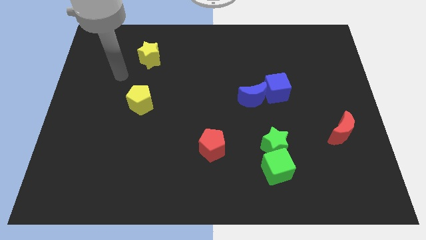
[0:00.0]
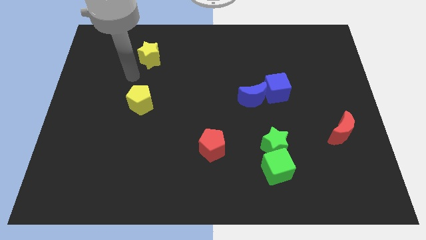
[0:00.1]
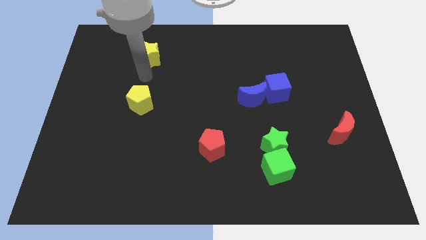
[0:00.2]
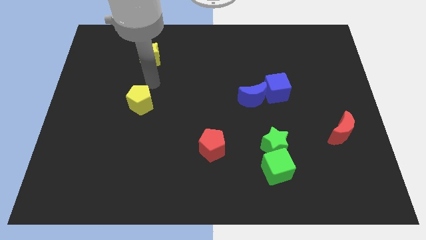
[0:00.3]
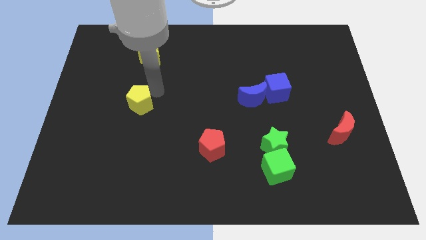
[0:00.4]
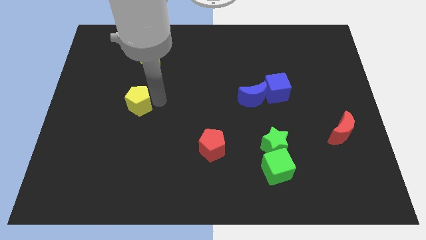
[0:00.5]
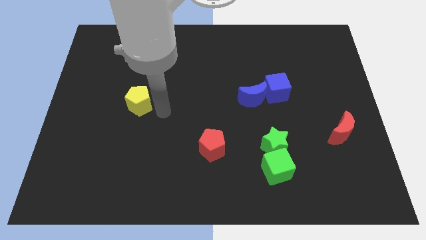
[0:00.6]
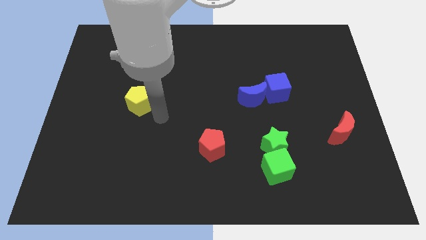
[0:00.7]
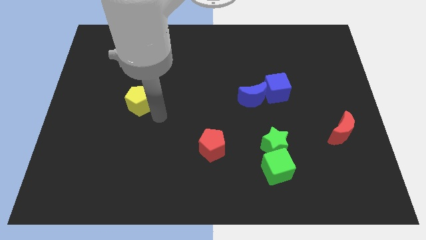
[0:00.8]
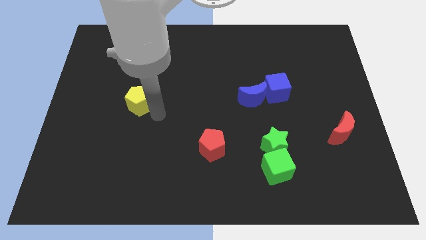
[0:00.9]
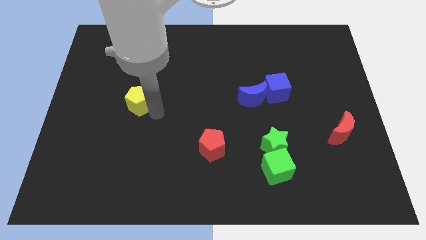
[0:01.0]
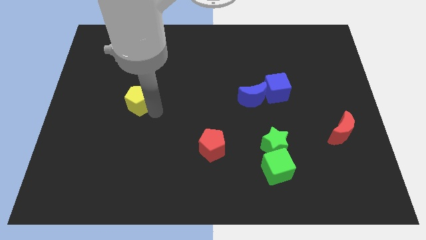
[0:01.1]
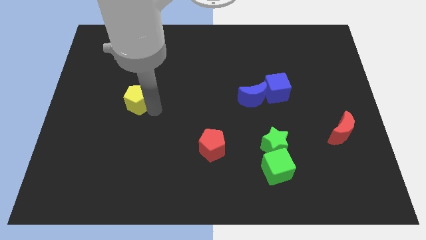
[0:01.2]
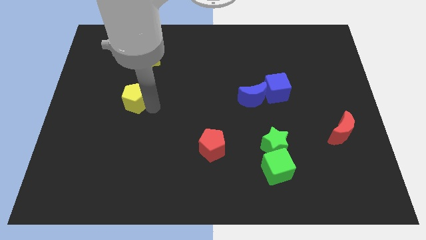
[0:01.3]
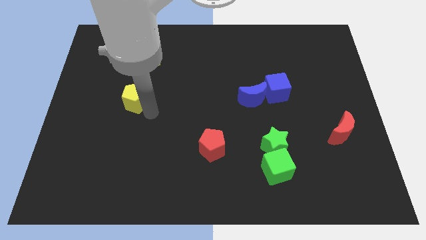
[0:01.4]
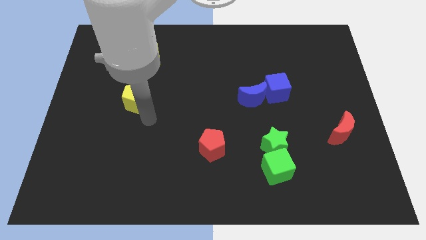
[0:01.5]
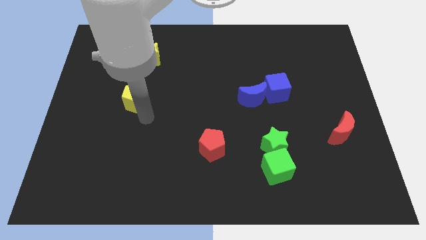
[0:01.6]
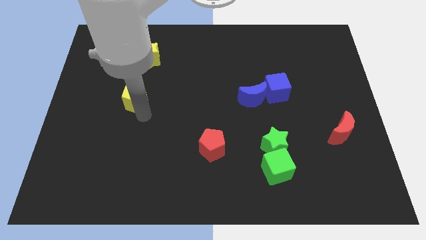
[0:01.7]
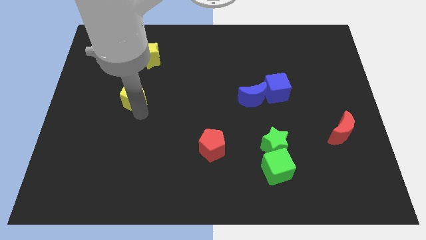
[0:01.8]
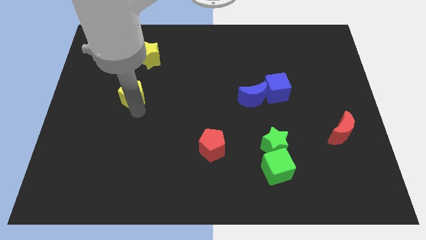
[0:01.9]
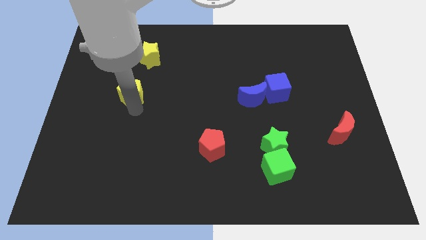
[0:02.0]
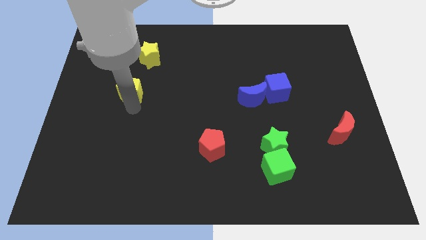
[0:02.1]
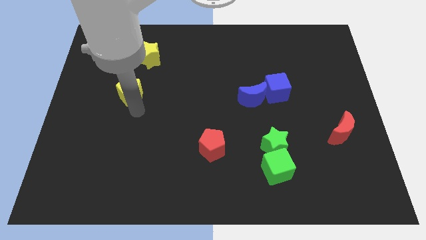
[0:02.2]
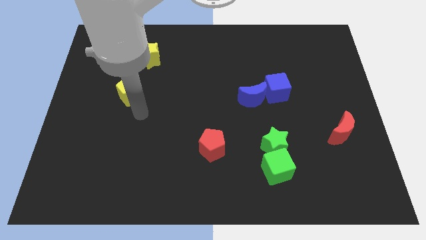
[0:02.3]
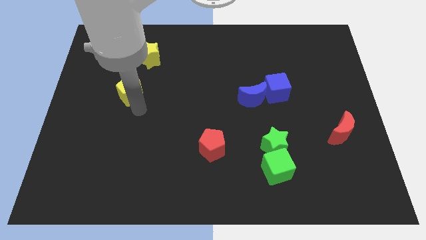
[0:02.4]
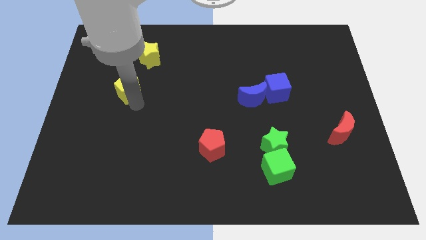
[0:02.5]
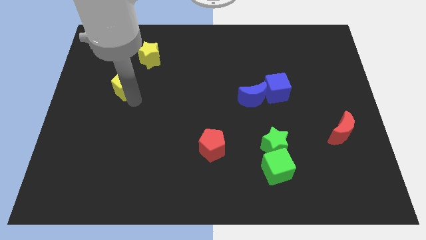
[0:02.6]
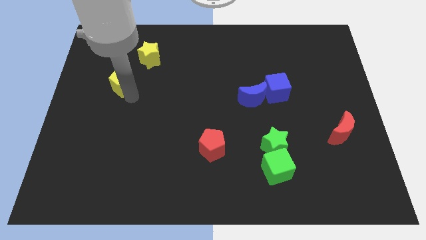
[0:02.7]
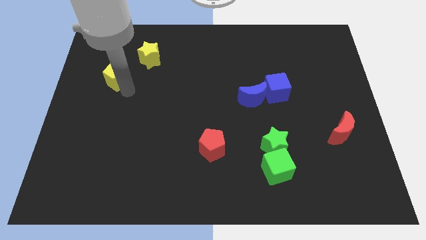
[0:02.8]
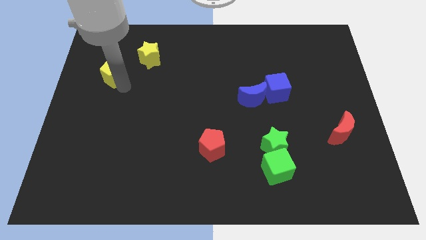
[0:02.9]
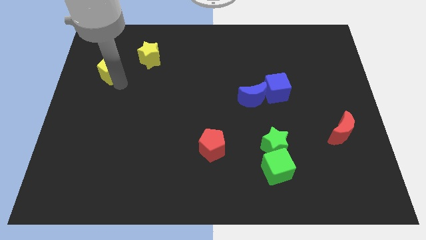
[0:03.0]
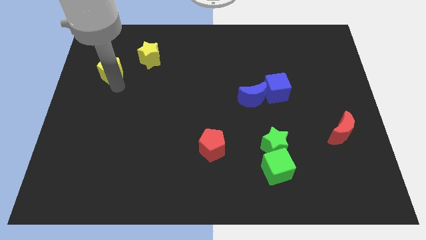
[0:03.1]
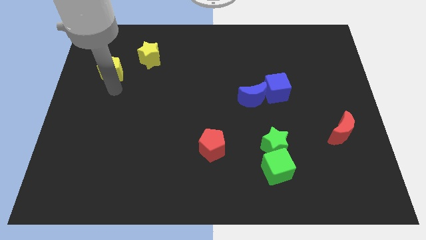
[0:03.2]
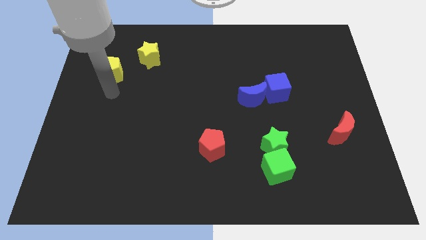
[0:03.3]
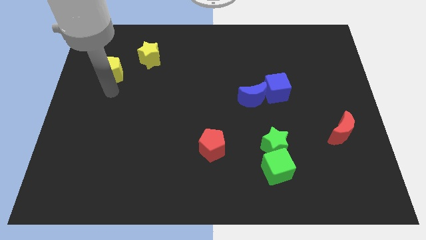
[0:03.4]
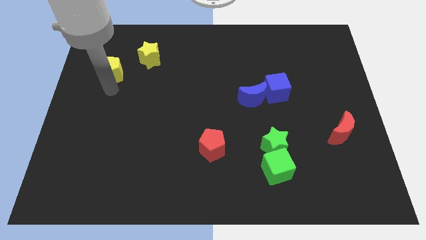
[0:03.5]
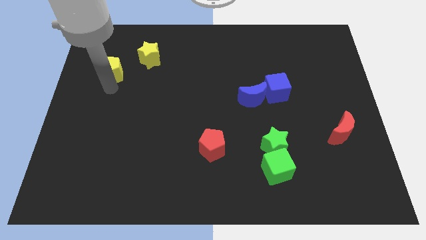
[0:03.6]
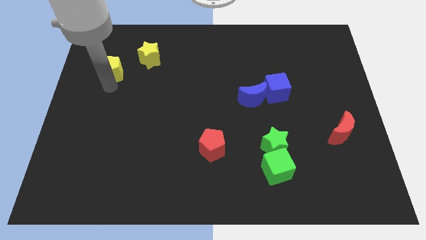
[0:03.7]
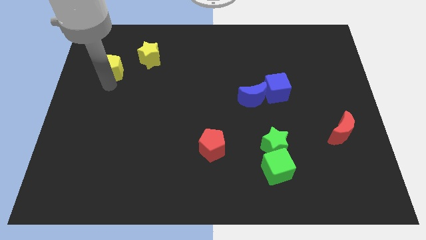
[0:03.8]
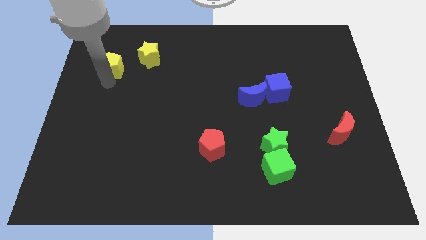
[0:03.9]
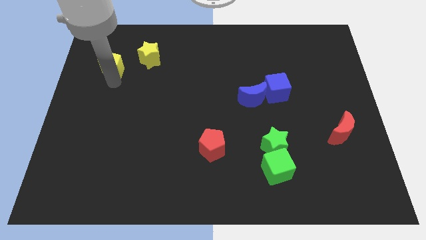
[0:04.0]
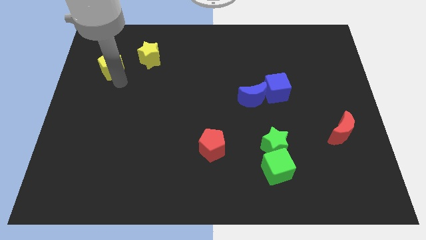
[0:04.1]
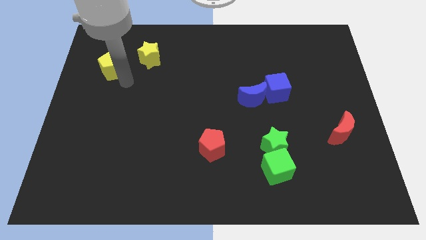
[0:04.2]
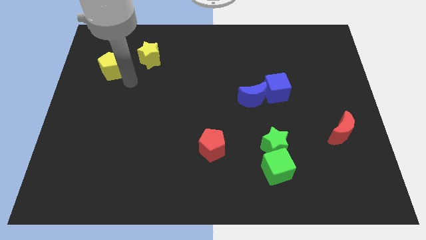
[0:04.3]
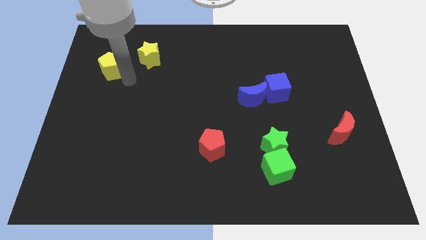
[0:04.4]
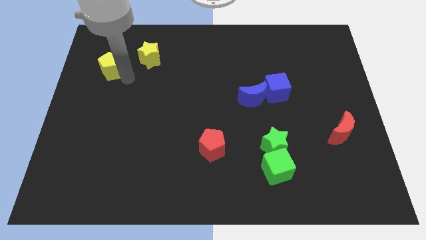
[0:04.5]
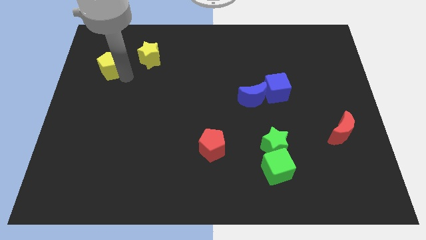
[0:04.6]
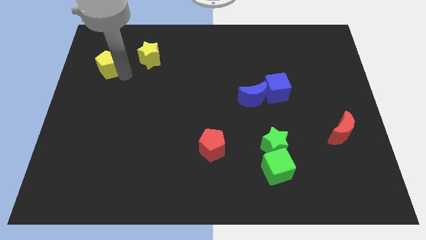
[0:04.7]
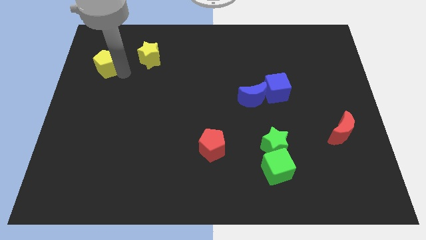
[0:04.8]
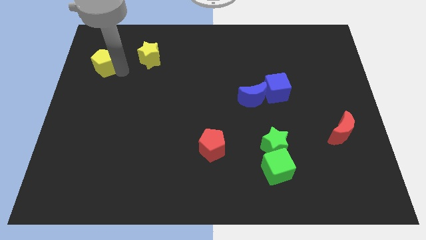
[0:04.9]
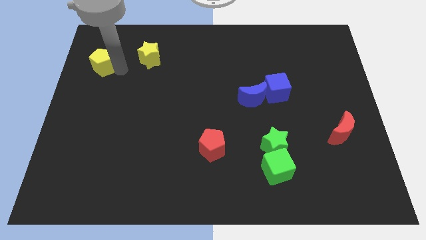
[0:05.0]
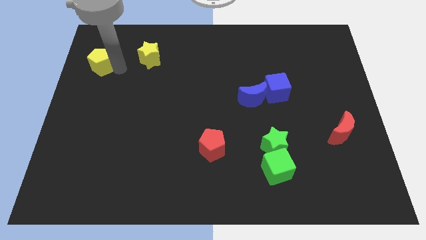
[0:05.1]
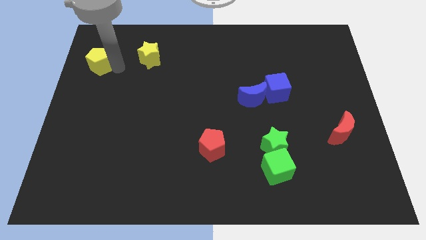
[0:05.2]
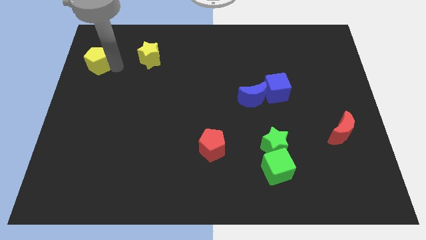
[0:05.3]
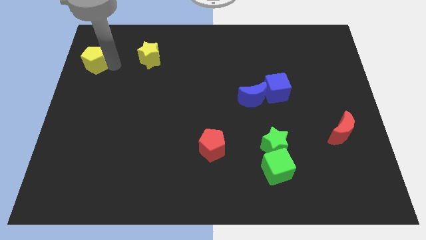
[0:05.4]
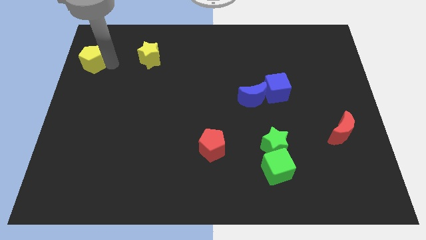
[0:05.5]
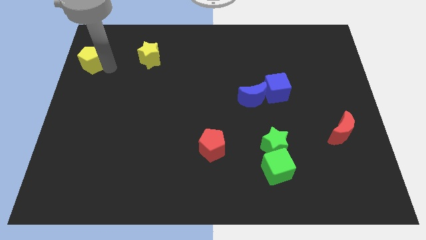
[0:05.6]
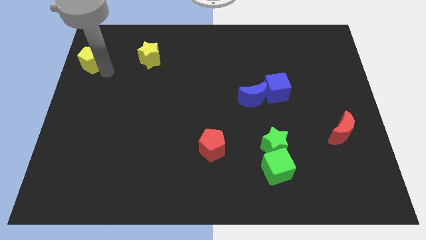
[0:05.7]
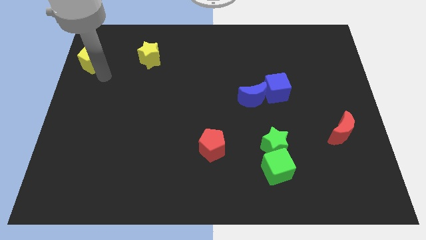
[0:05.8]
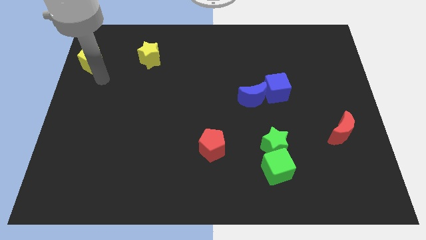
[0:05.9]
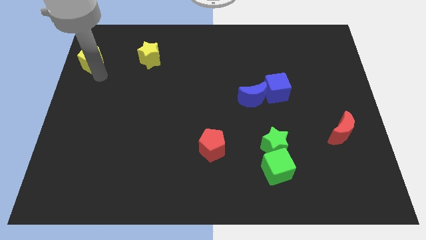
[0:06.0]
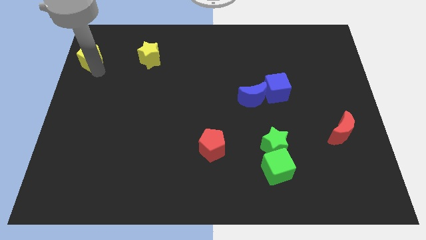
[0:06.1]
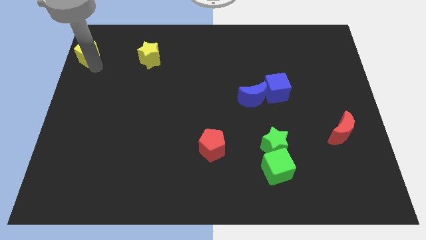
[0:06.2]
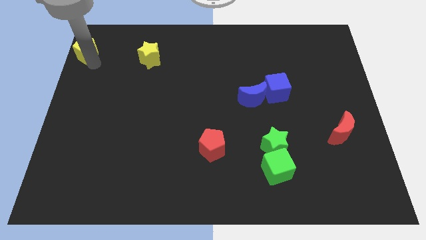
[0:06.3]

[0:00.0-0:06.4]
move the yellow pentagon to the top left corner

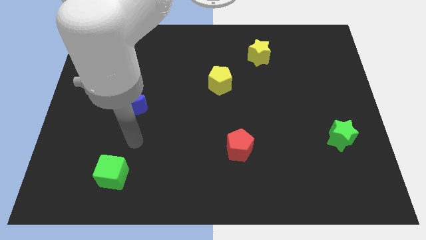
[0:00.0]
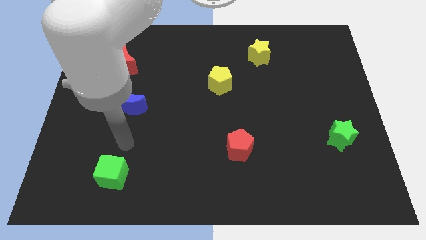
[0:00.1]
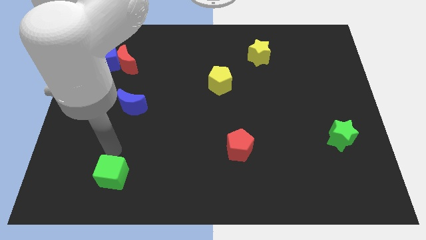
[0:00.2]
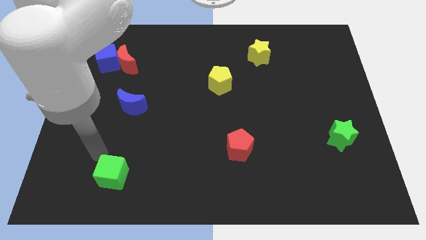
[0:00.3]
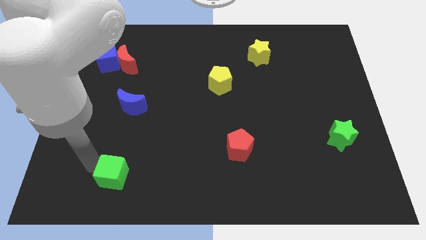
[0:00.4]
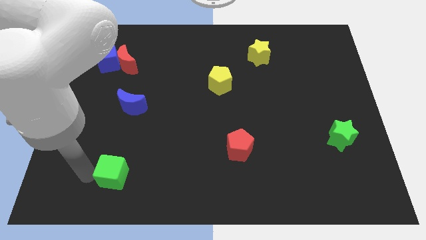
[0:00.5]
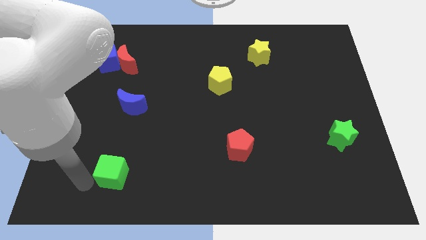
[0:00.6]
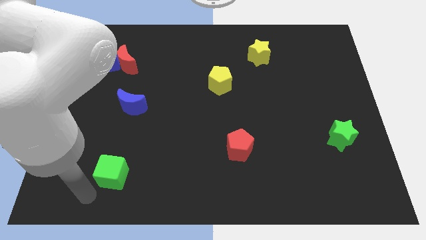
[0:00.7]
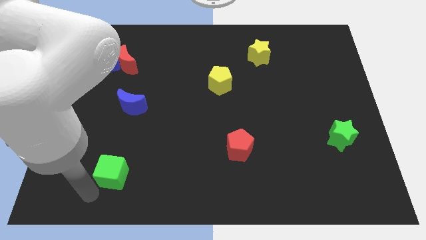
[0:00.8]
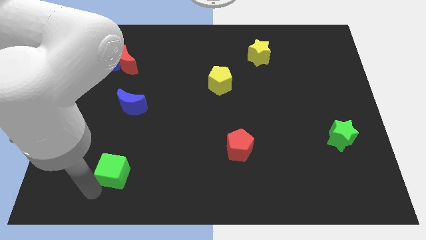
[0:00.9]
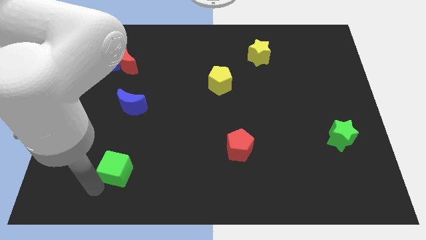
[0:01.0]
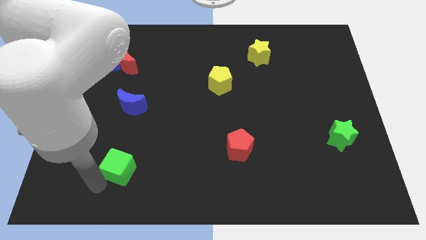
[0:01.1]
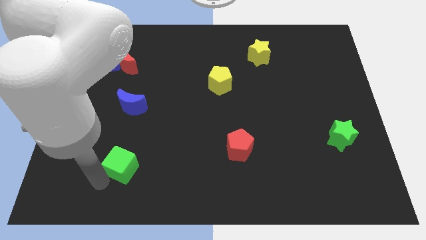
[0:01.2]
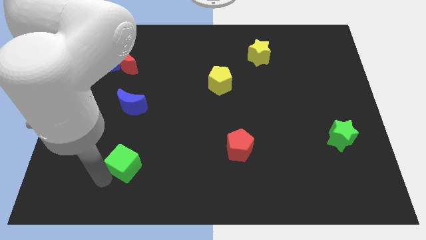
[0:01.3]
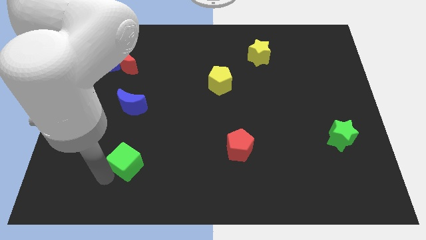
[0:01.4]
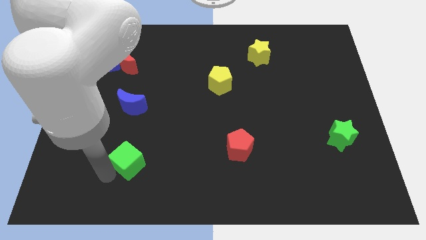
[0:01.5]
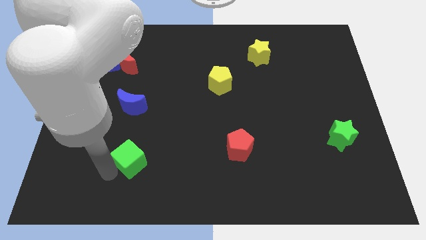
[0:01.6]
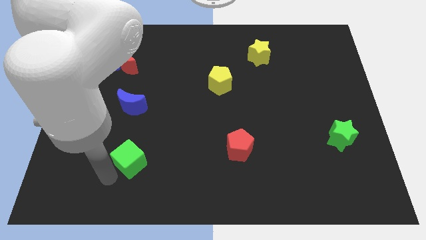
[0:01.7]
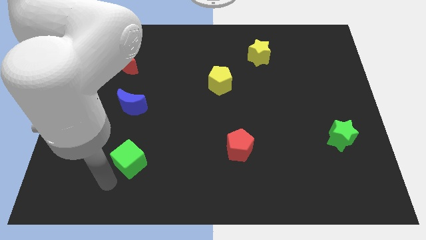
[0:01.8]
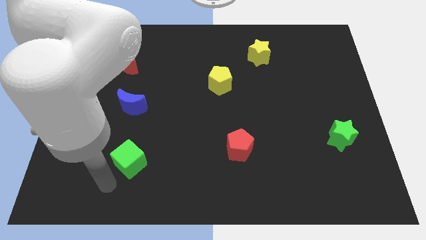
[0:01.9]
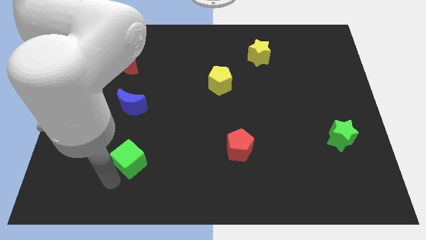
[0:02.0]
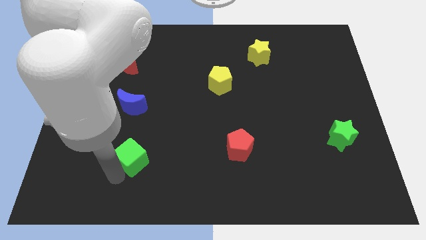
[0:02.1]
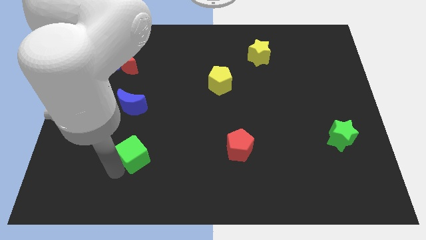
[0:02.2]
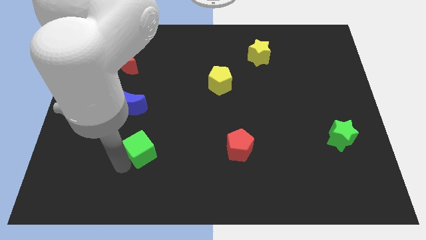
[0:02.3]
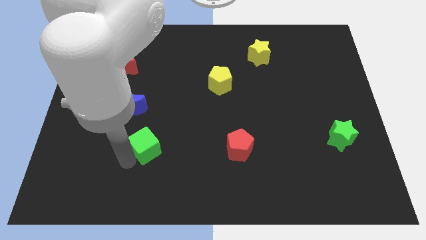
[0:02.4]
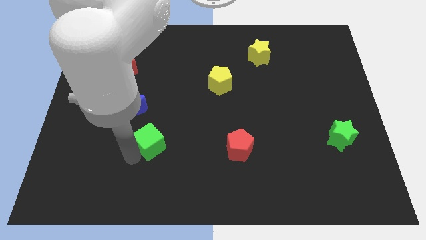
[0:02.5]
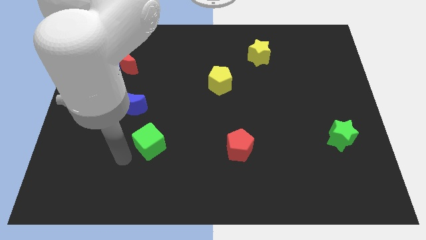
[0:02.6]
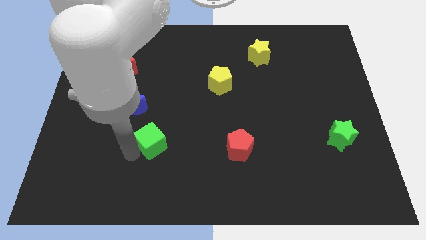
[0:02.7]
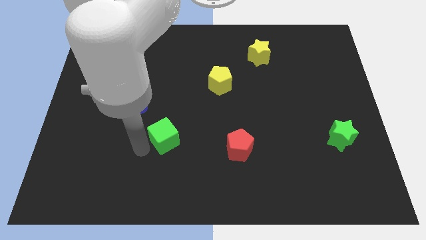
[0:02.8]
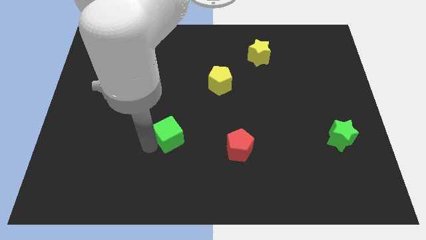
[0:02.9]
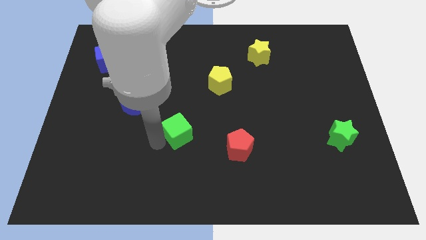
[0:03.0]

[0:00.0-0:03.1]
put the green cube to the middle of the board
